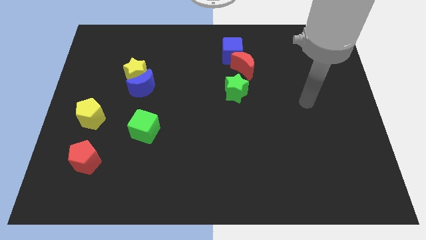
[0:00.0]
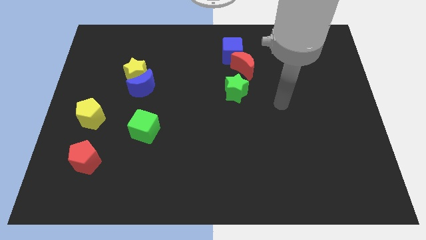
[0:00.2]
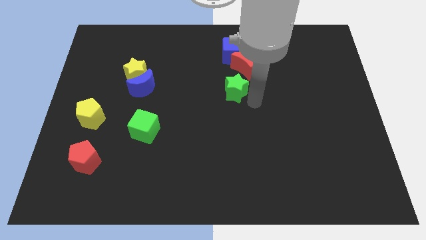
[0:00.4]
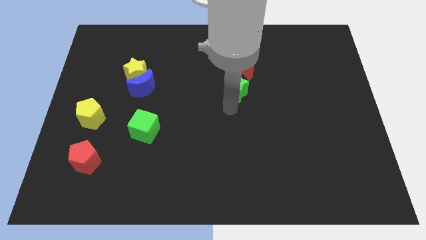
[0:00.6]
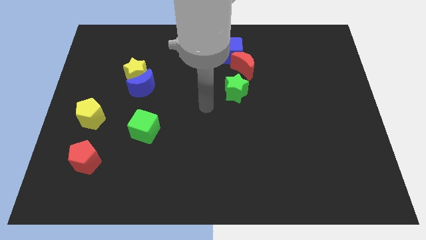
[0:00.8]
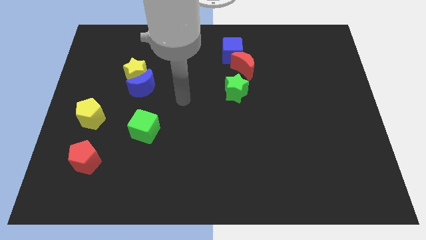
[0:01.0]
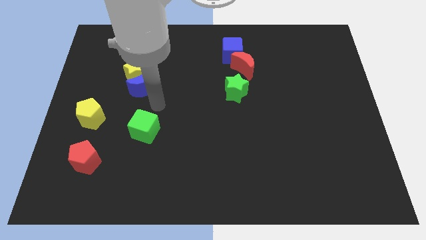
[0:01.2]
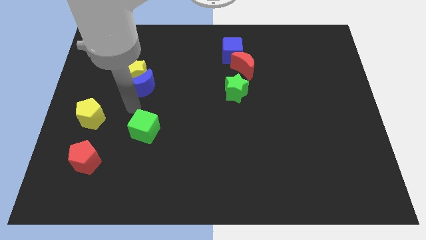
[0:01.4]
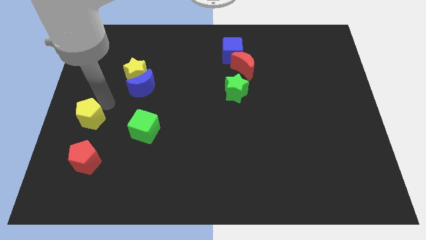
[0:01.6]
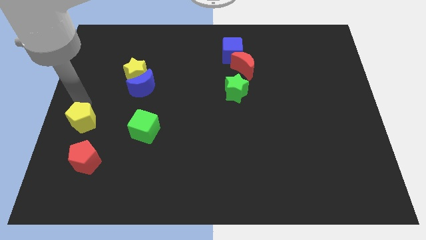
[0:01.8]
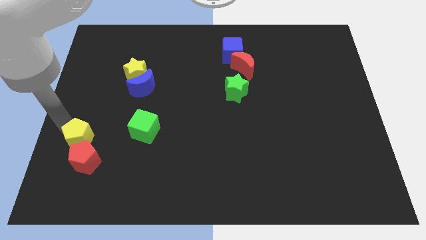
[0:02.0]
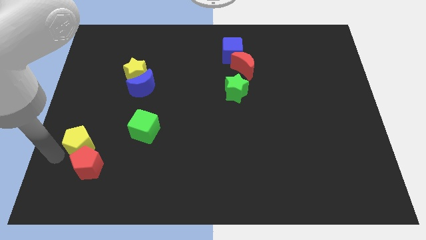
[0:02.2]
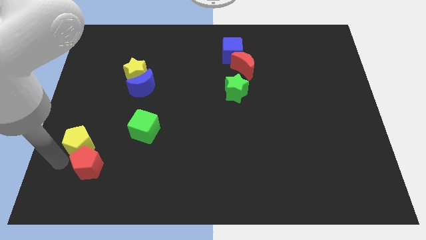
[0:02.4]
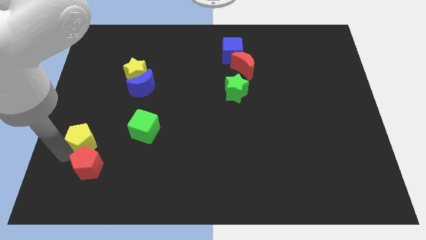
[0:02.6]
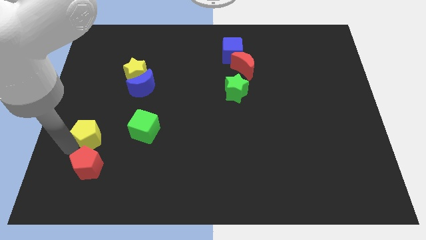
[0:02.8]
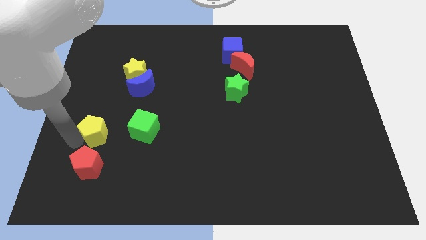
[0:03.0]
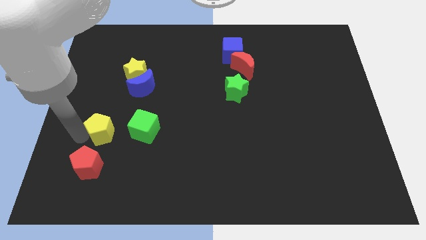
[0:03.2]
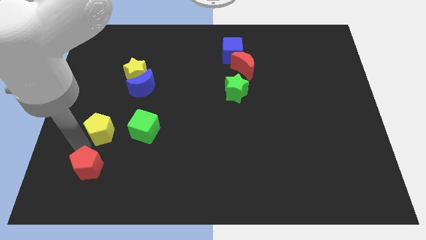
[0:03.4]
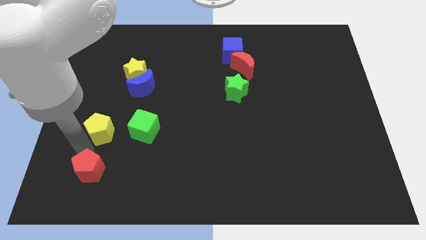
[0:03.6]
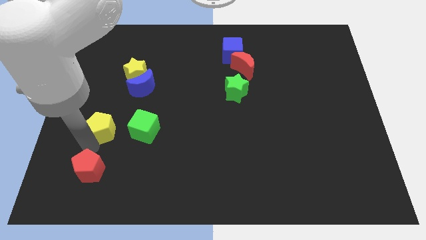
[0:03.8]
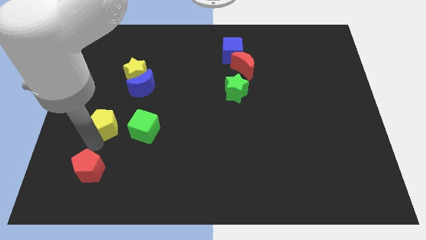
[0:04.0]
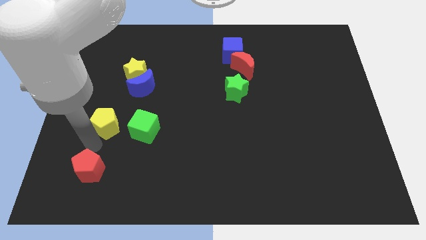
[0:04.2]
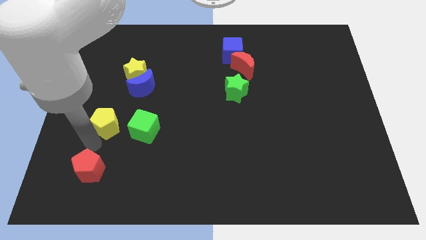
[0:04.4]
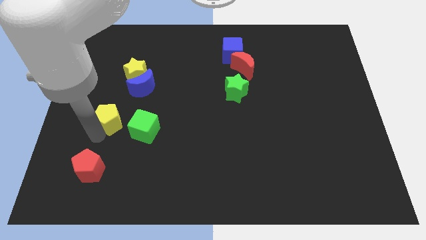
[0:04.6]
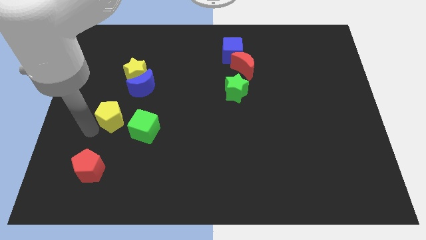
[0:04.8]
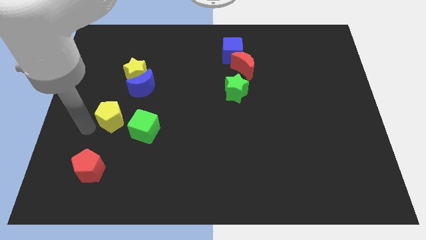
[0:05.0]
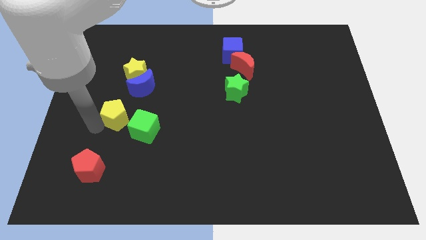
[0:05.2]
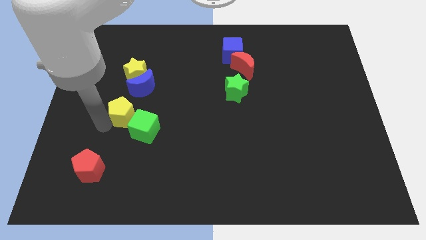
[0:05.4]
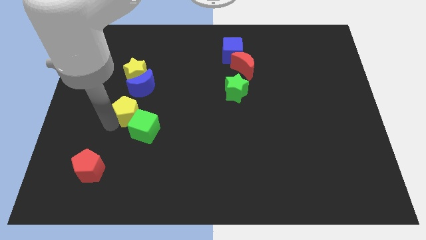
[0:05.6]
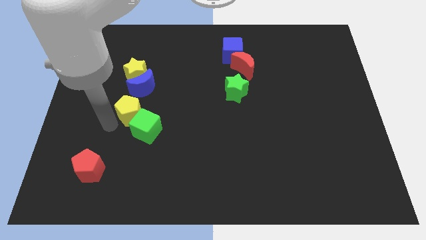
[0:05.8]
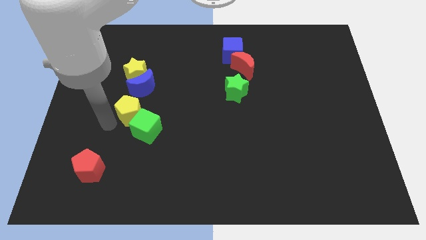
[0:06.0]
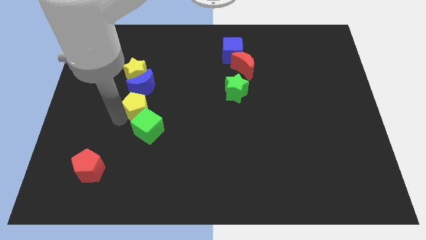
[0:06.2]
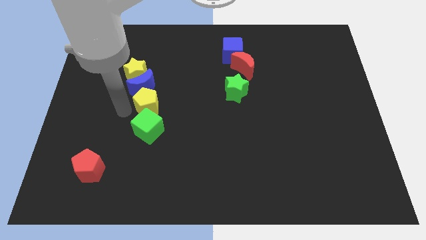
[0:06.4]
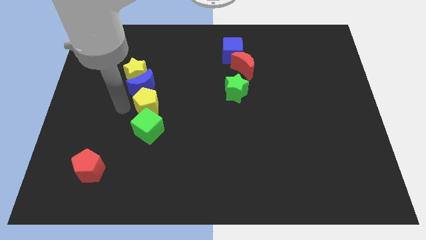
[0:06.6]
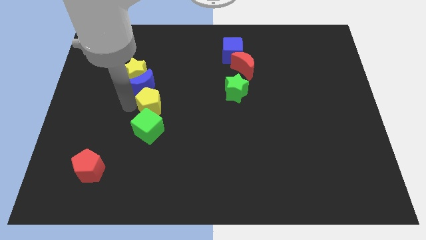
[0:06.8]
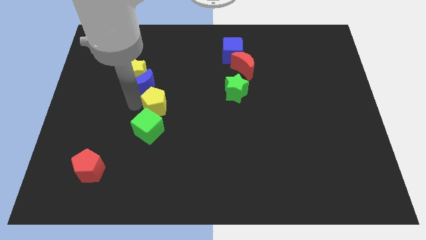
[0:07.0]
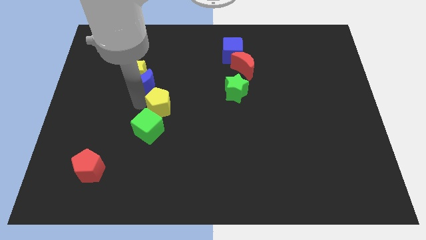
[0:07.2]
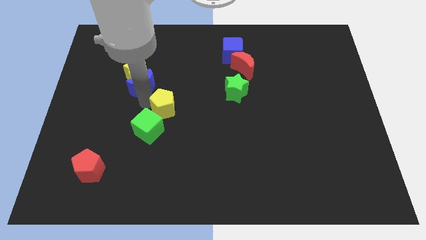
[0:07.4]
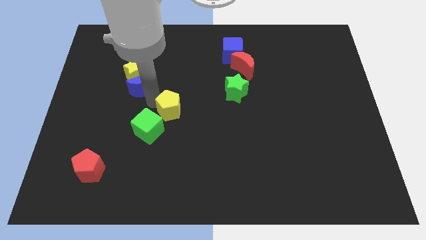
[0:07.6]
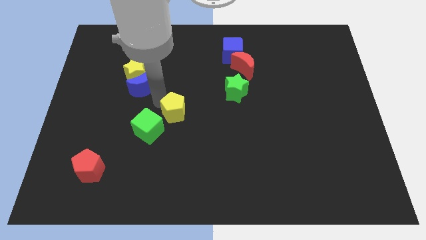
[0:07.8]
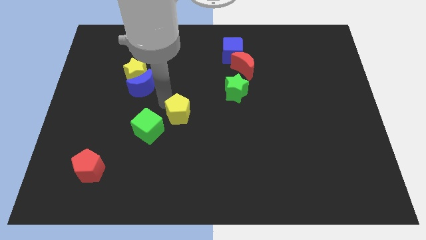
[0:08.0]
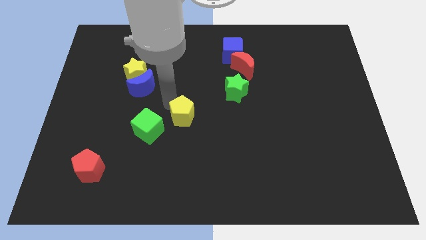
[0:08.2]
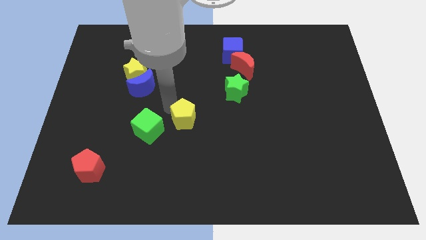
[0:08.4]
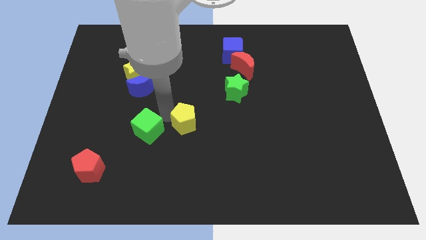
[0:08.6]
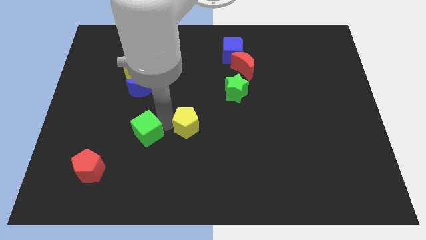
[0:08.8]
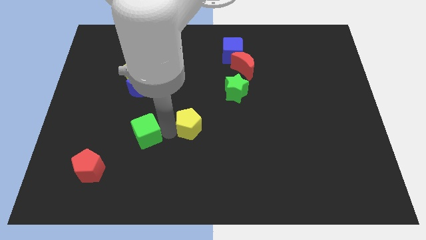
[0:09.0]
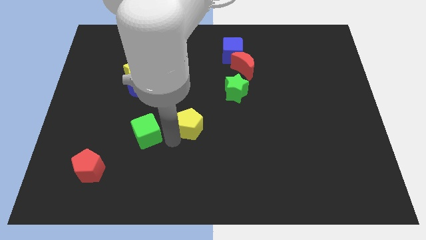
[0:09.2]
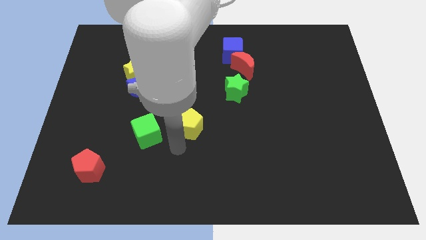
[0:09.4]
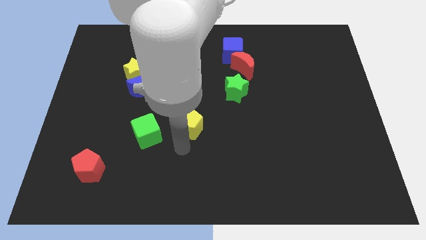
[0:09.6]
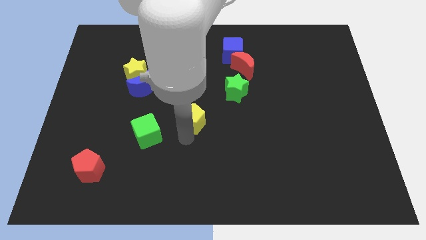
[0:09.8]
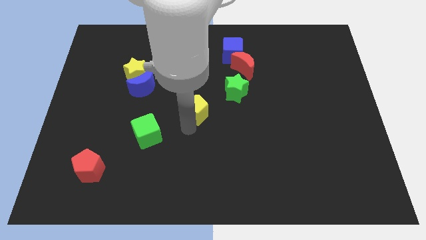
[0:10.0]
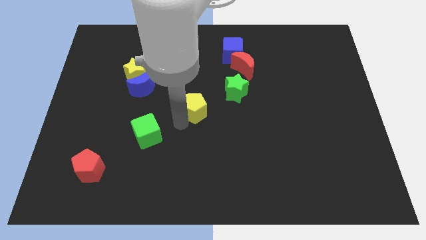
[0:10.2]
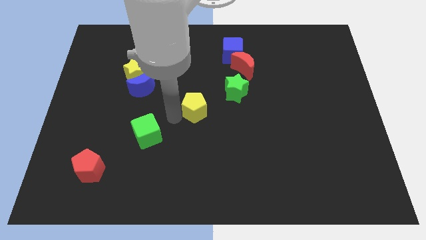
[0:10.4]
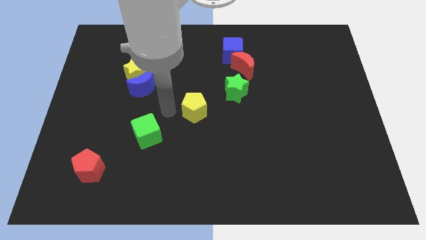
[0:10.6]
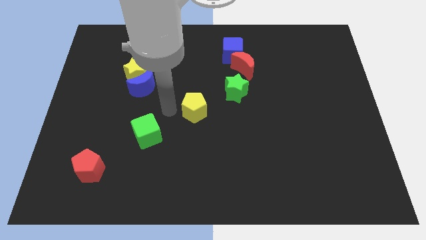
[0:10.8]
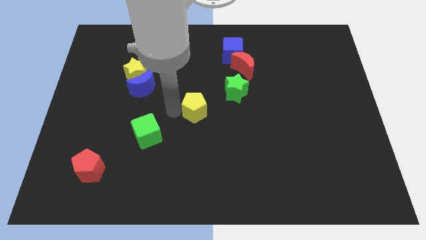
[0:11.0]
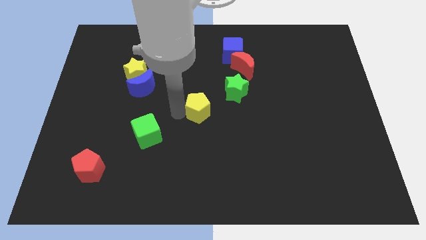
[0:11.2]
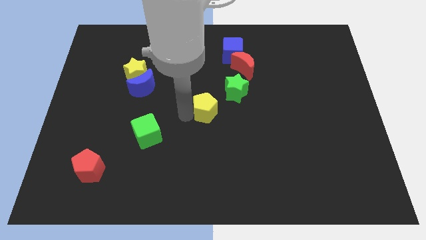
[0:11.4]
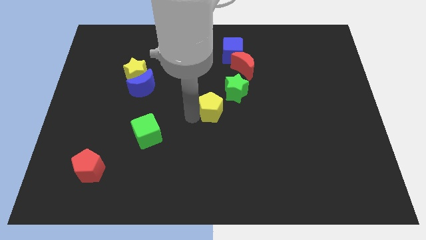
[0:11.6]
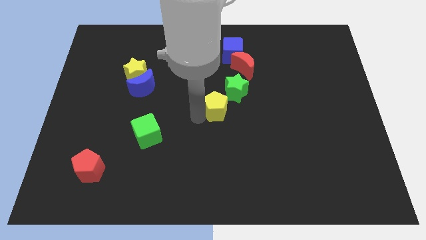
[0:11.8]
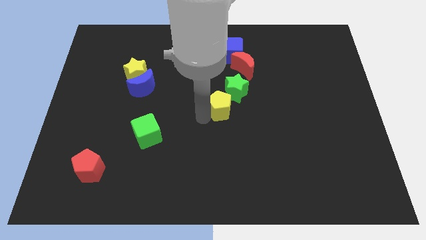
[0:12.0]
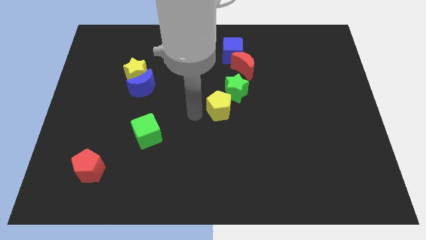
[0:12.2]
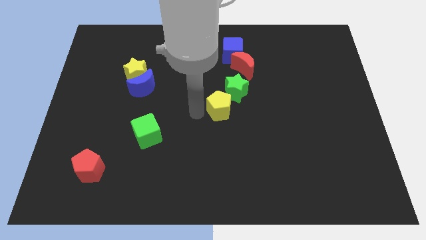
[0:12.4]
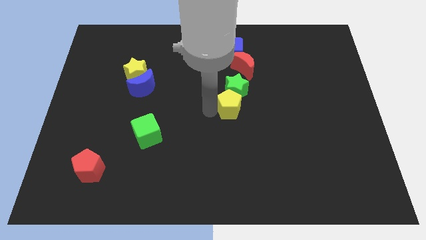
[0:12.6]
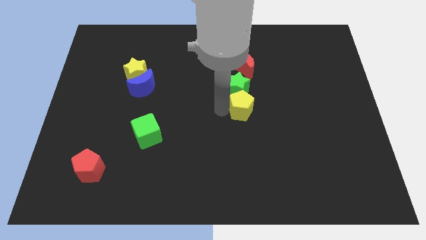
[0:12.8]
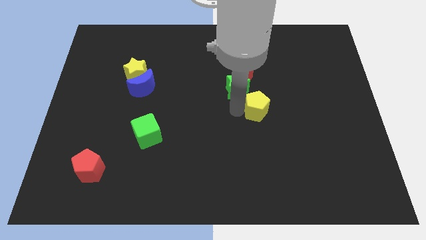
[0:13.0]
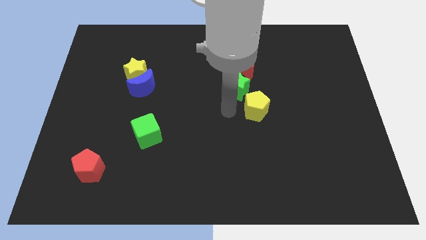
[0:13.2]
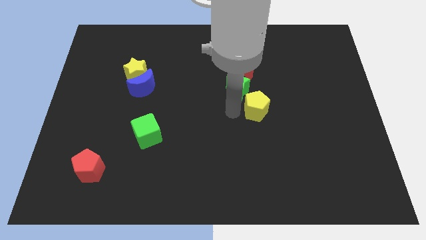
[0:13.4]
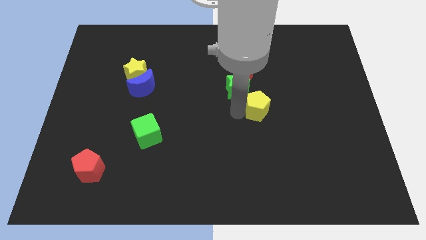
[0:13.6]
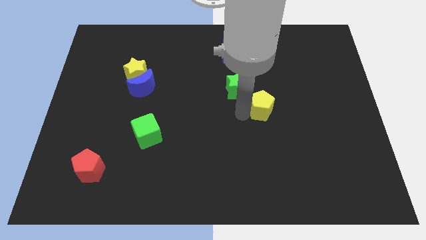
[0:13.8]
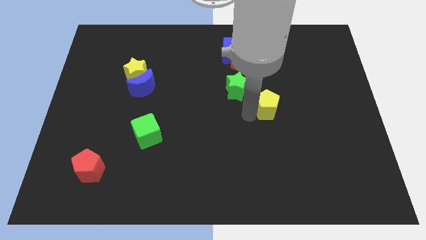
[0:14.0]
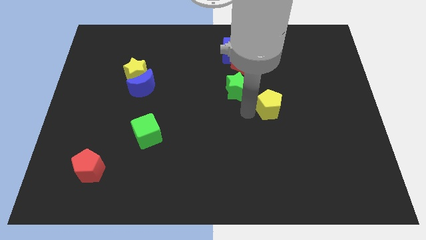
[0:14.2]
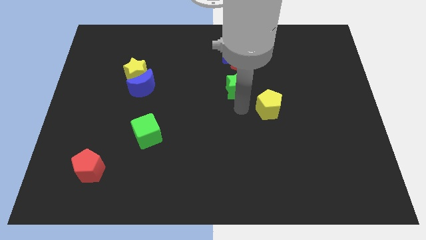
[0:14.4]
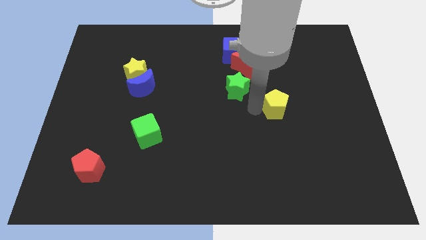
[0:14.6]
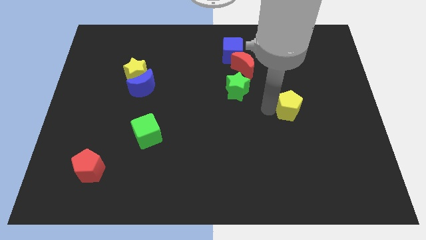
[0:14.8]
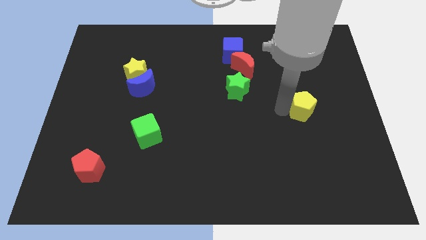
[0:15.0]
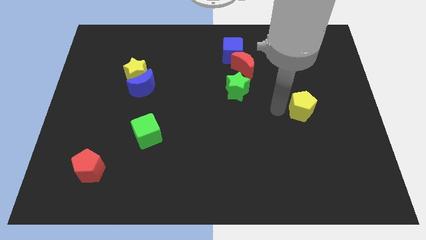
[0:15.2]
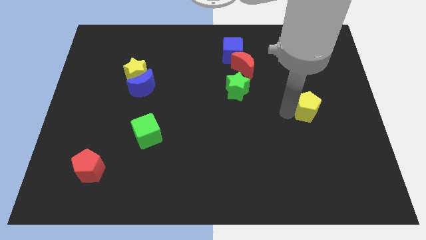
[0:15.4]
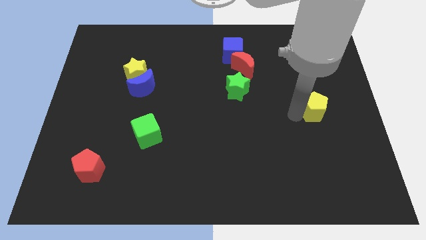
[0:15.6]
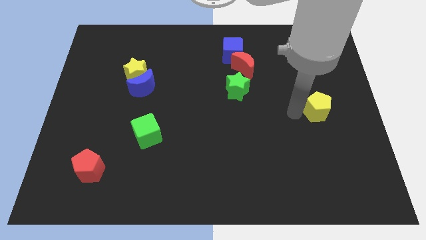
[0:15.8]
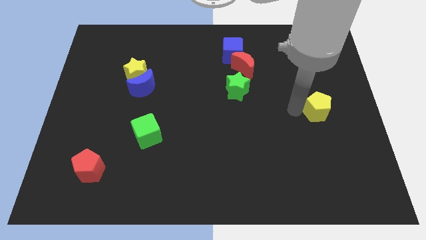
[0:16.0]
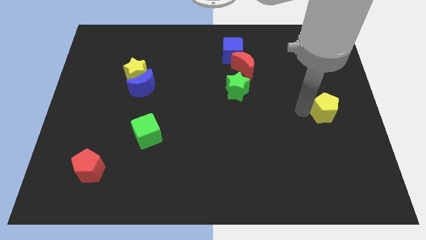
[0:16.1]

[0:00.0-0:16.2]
move the yellow pentagon to the center right
